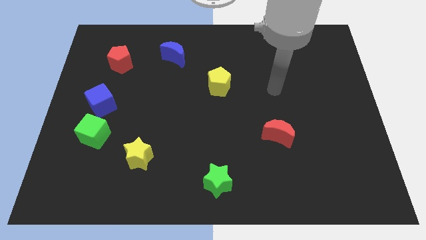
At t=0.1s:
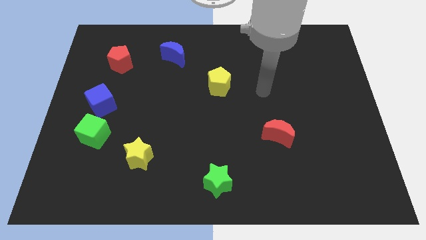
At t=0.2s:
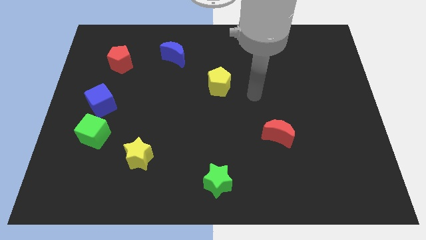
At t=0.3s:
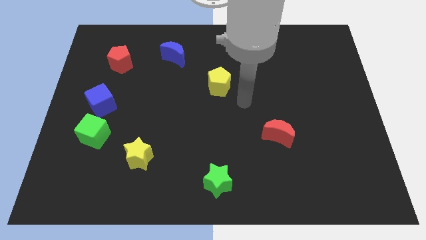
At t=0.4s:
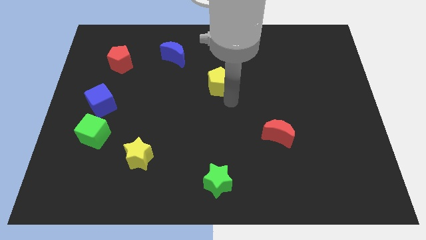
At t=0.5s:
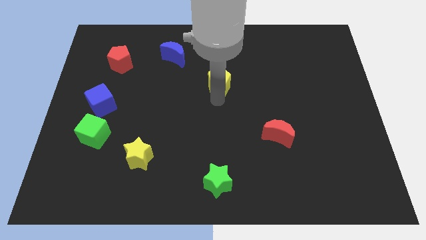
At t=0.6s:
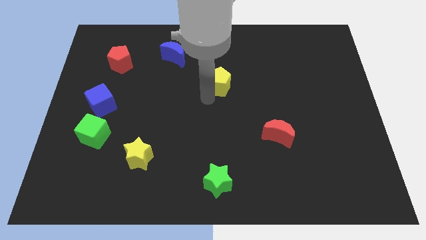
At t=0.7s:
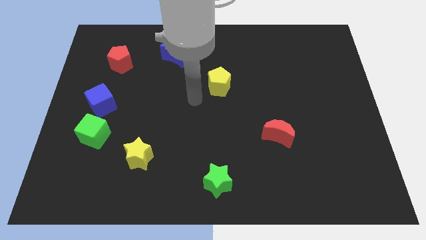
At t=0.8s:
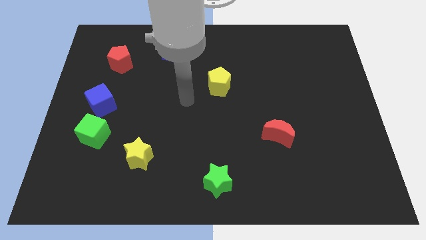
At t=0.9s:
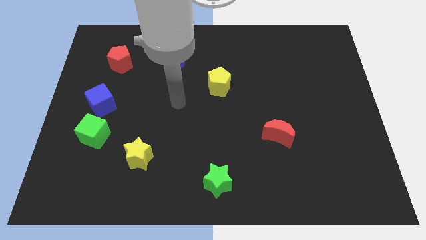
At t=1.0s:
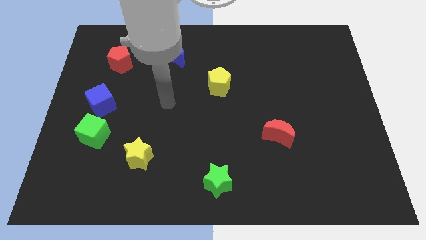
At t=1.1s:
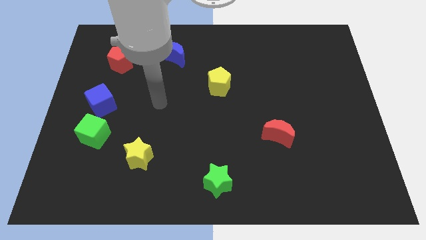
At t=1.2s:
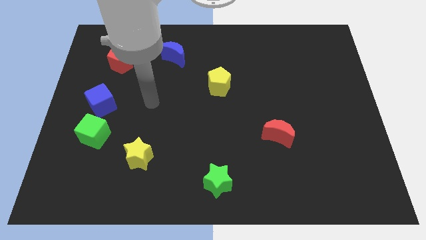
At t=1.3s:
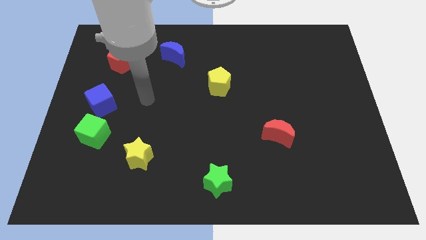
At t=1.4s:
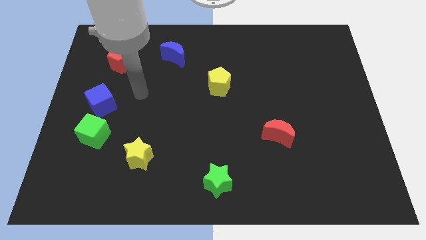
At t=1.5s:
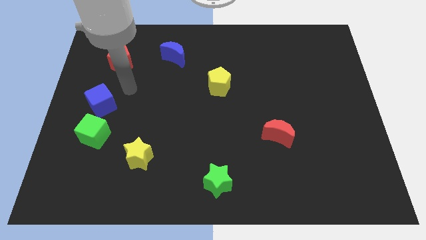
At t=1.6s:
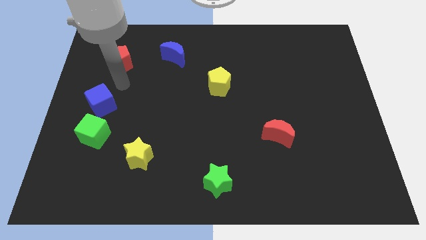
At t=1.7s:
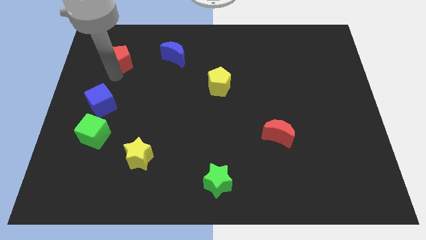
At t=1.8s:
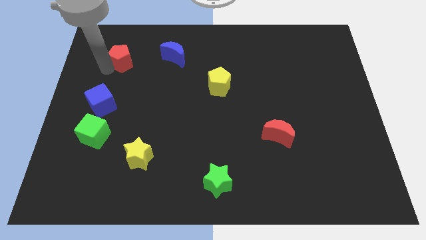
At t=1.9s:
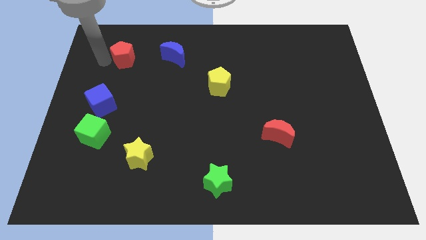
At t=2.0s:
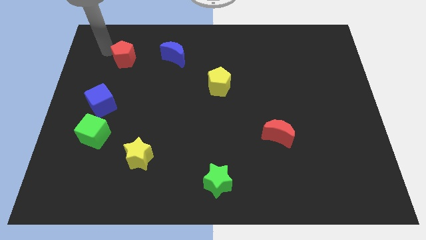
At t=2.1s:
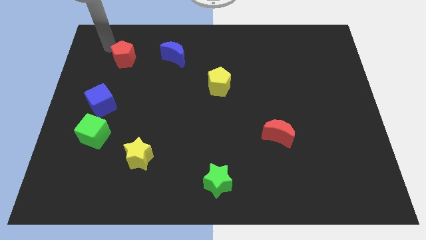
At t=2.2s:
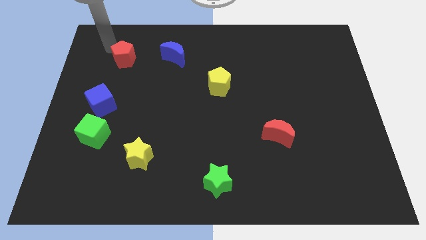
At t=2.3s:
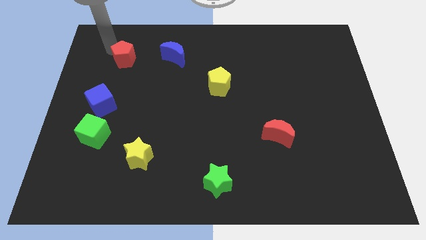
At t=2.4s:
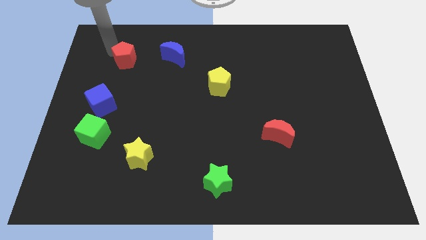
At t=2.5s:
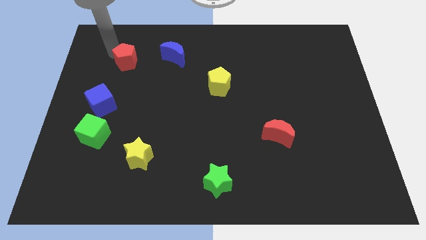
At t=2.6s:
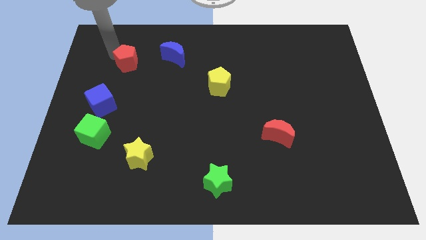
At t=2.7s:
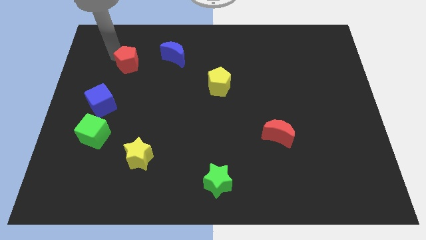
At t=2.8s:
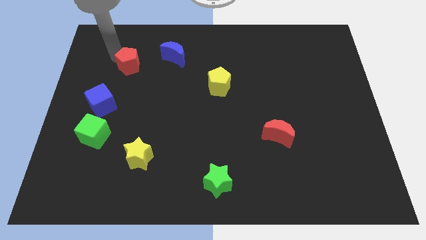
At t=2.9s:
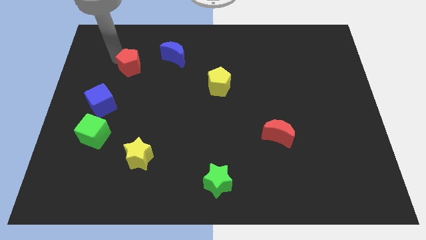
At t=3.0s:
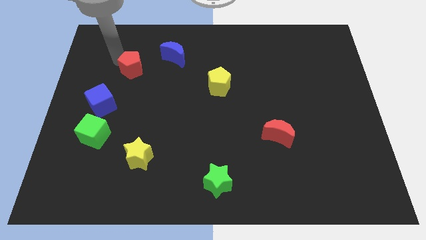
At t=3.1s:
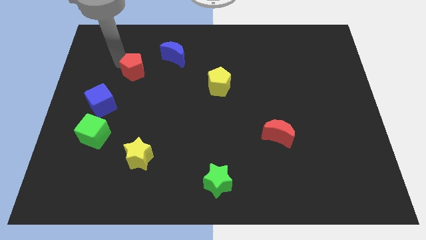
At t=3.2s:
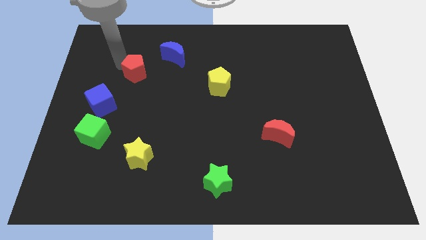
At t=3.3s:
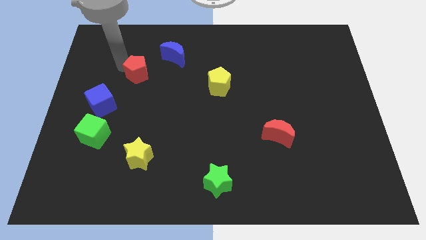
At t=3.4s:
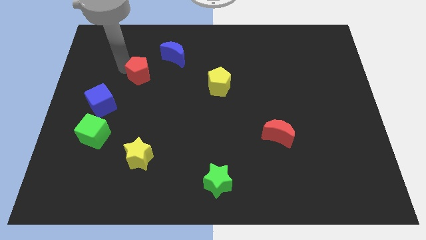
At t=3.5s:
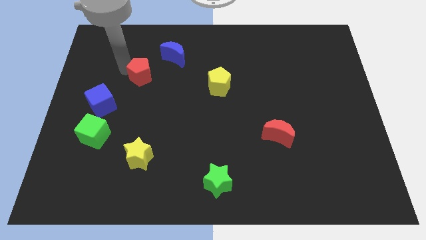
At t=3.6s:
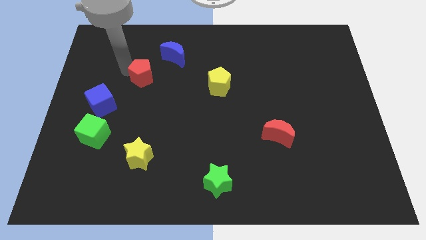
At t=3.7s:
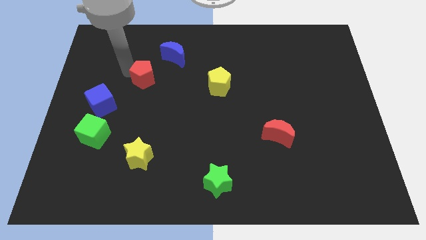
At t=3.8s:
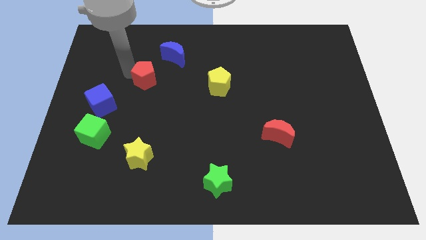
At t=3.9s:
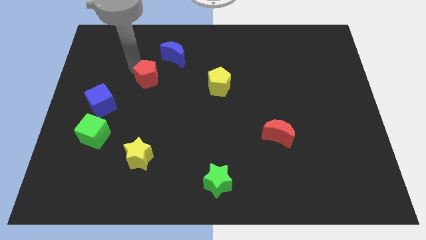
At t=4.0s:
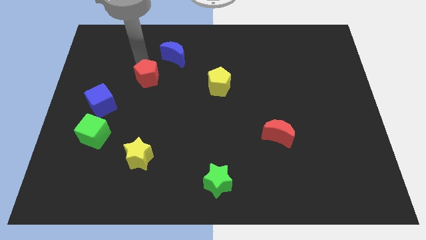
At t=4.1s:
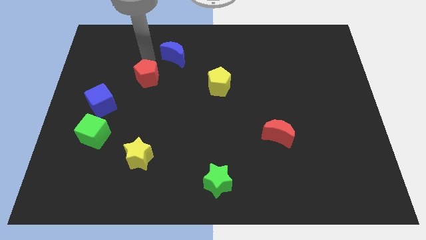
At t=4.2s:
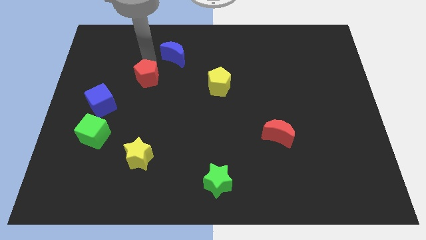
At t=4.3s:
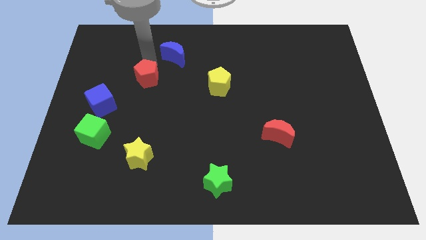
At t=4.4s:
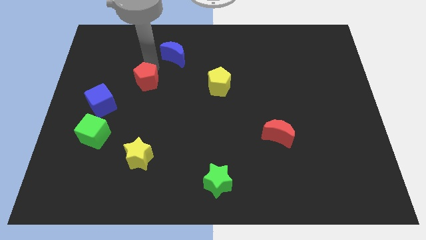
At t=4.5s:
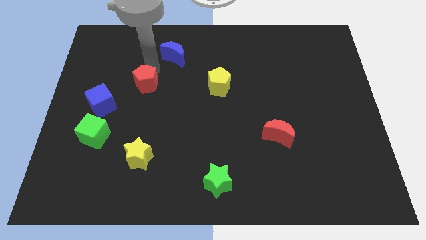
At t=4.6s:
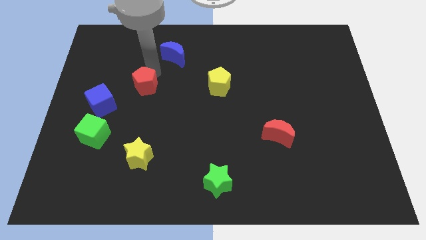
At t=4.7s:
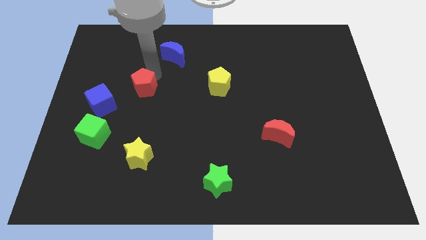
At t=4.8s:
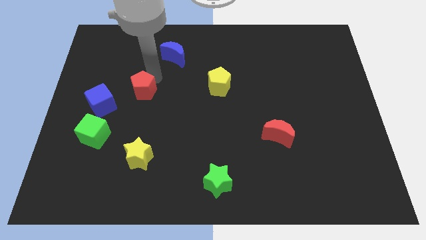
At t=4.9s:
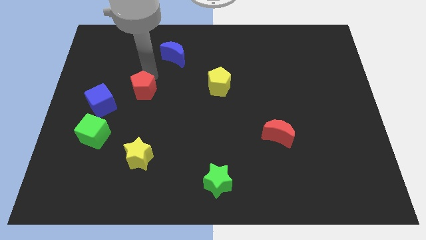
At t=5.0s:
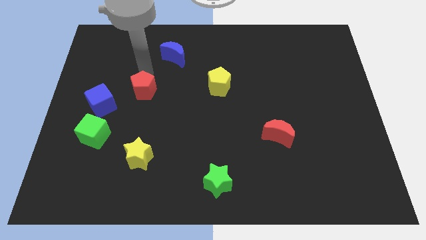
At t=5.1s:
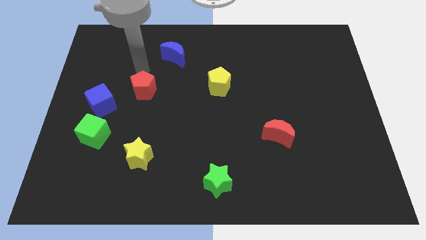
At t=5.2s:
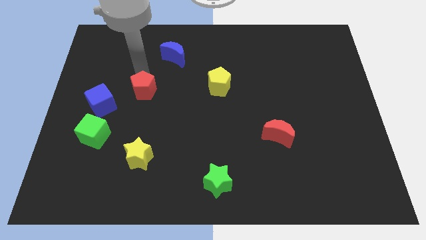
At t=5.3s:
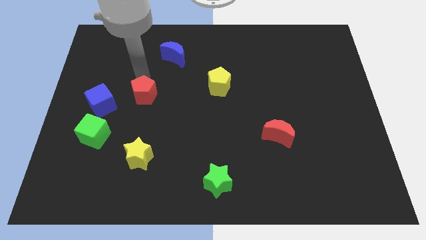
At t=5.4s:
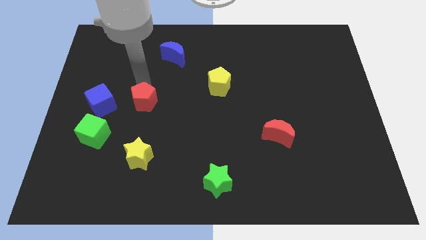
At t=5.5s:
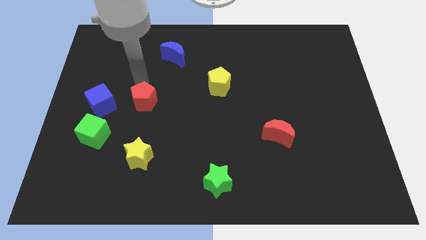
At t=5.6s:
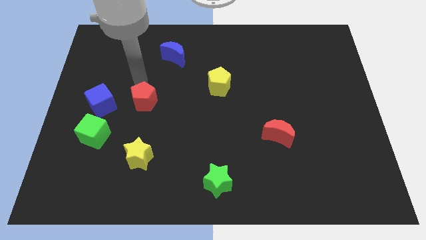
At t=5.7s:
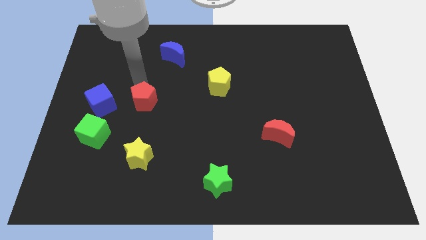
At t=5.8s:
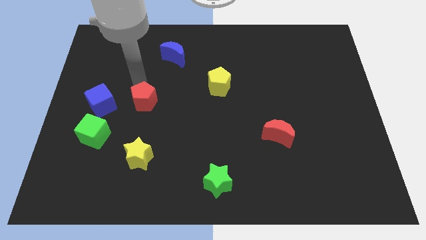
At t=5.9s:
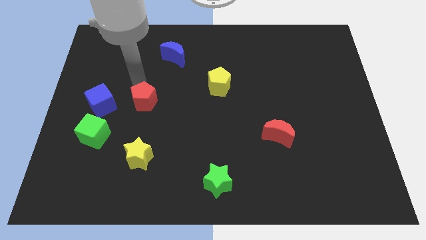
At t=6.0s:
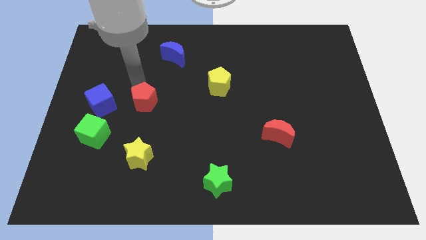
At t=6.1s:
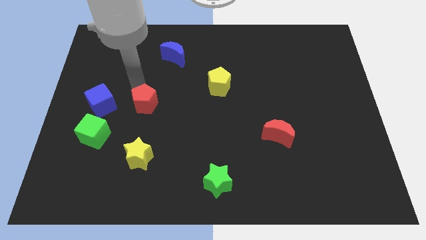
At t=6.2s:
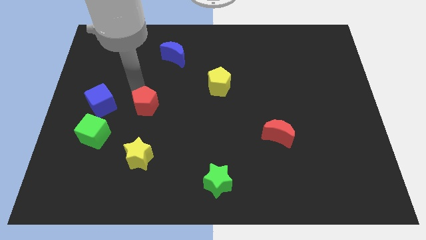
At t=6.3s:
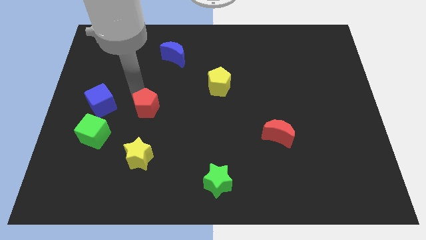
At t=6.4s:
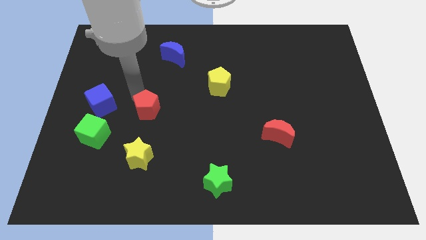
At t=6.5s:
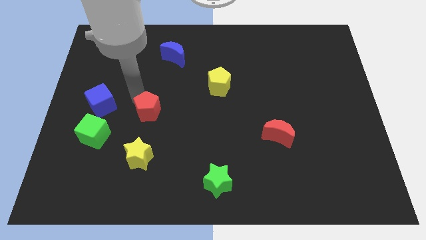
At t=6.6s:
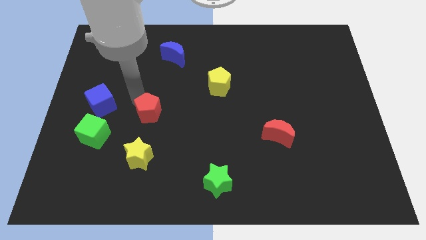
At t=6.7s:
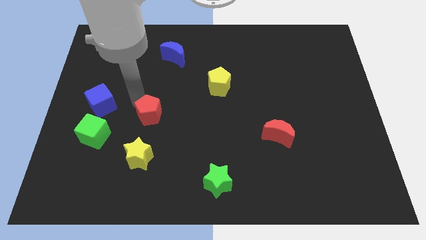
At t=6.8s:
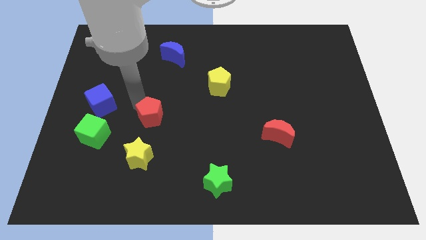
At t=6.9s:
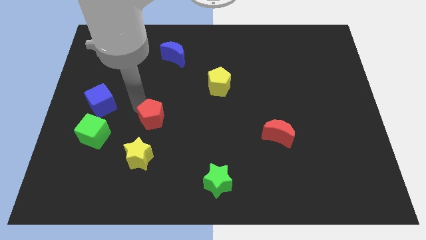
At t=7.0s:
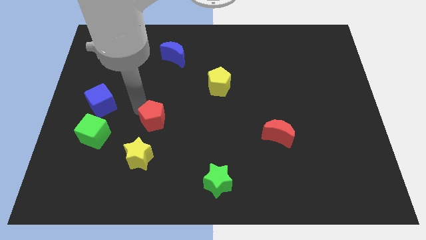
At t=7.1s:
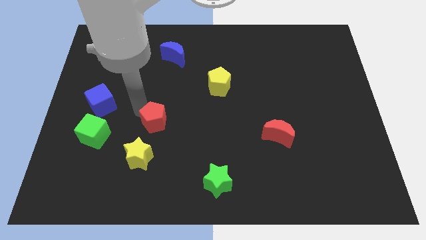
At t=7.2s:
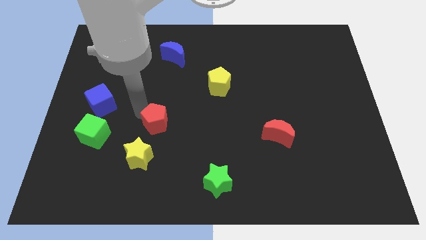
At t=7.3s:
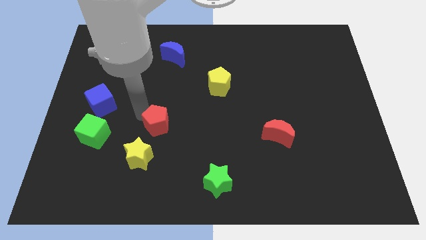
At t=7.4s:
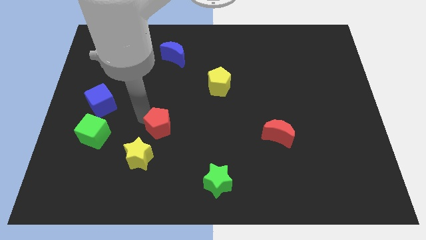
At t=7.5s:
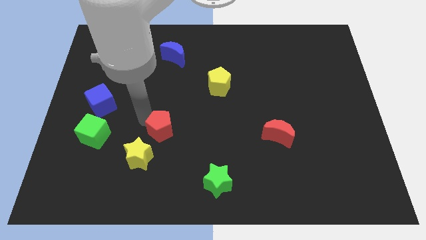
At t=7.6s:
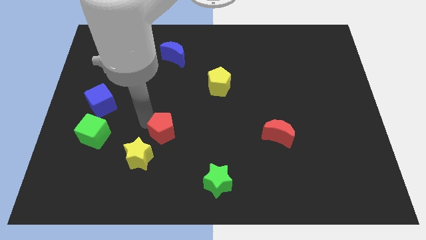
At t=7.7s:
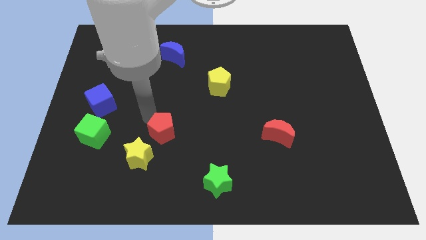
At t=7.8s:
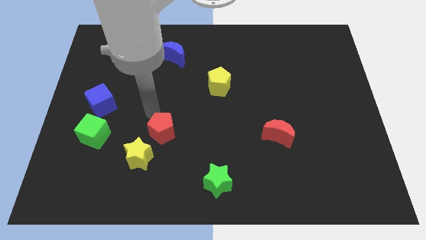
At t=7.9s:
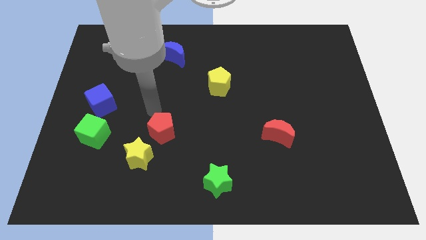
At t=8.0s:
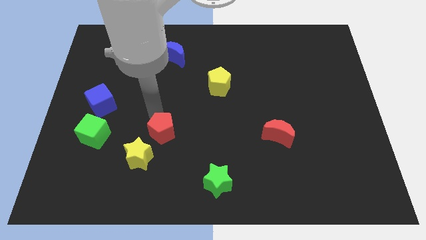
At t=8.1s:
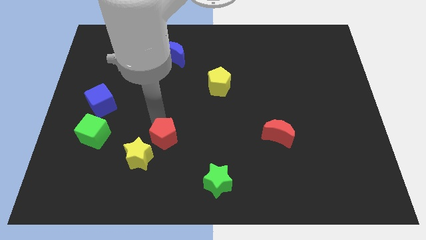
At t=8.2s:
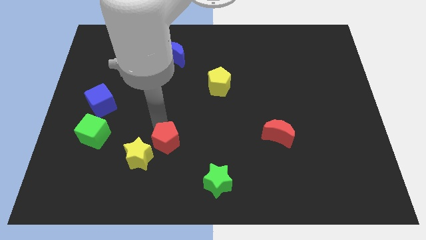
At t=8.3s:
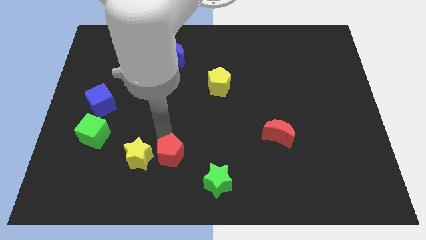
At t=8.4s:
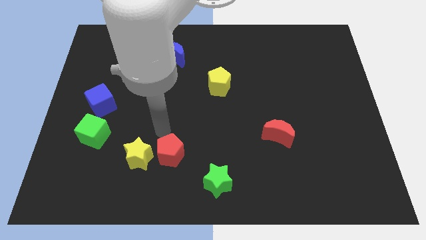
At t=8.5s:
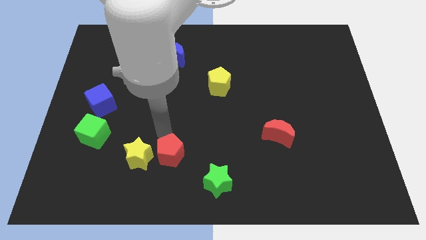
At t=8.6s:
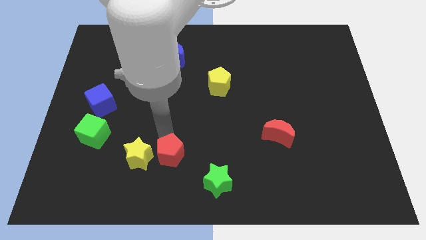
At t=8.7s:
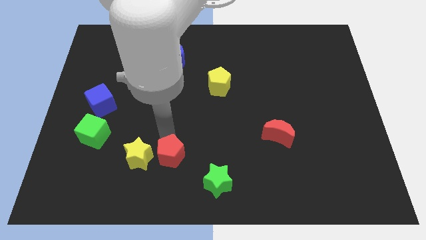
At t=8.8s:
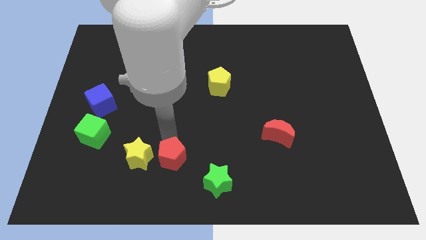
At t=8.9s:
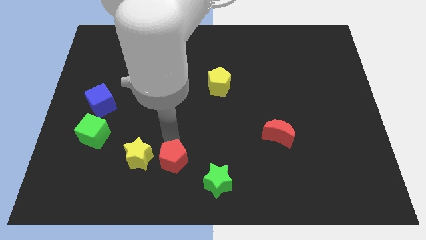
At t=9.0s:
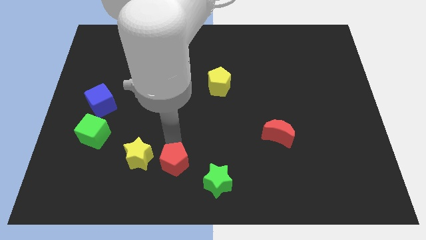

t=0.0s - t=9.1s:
move the red pentagon to the bottom side
